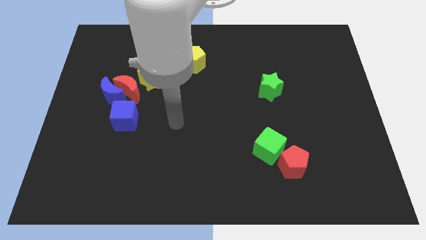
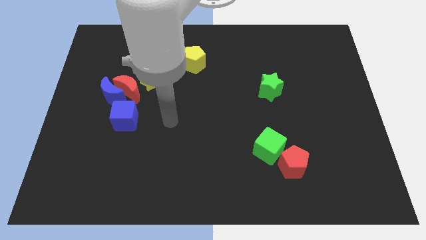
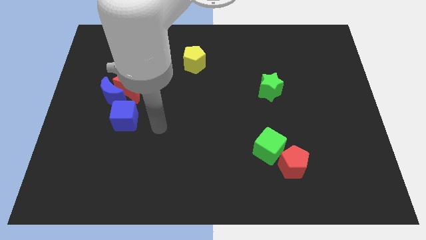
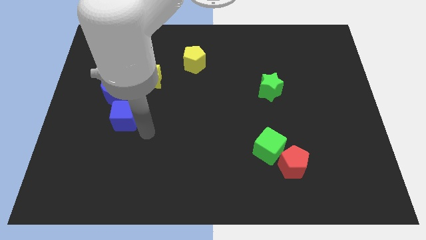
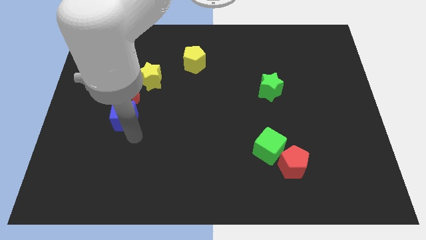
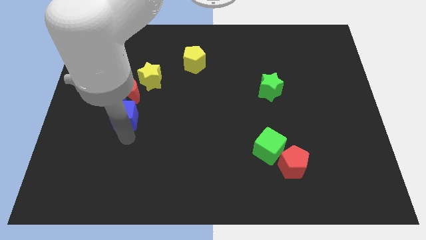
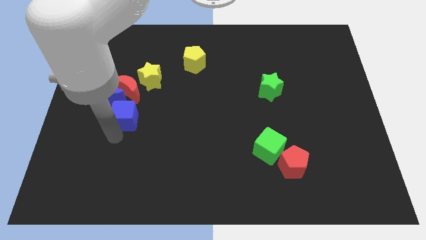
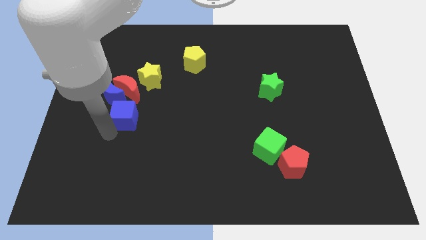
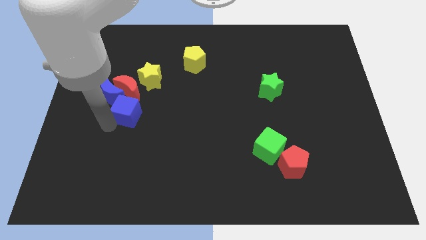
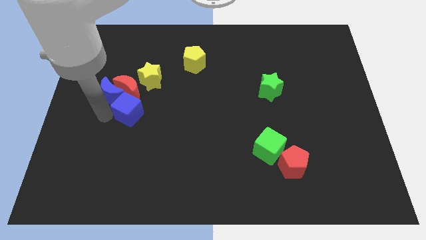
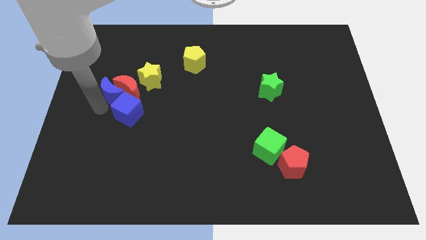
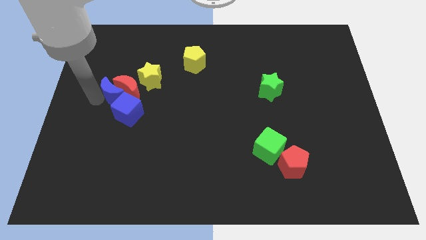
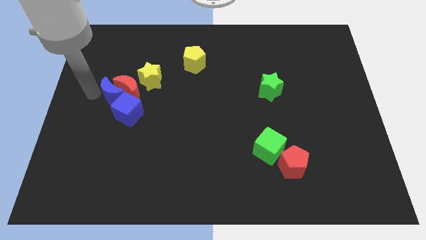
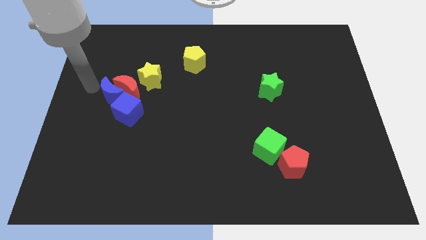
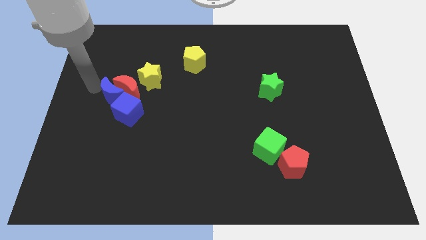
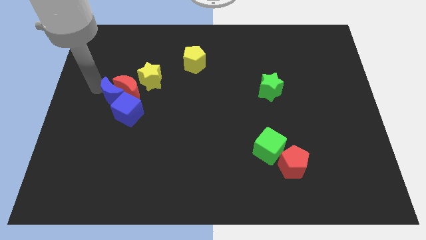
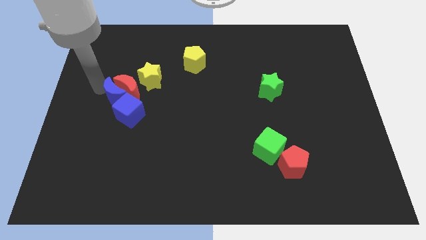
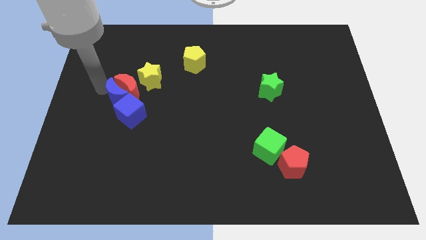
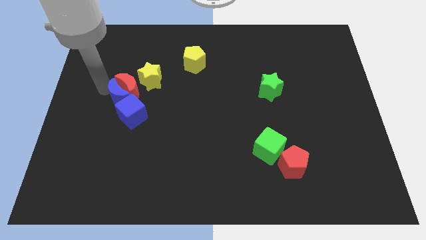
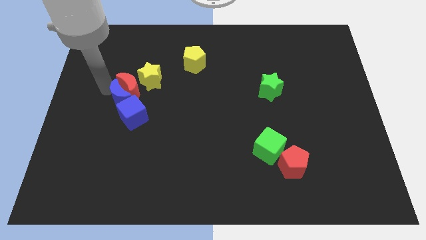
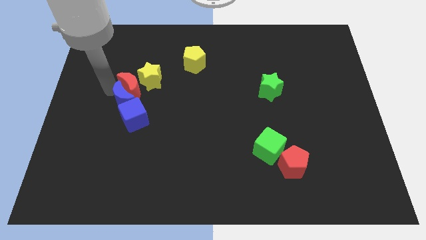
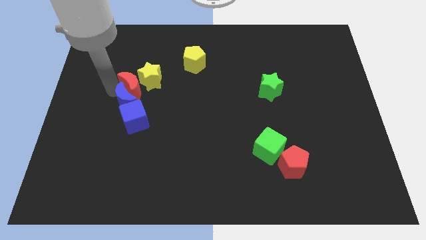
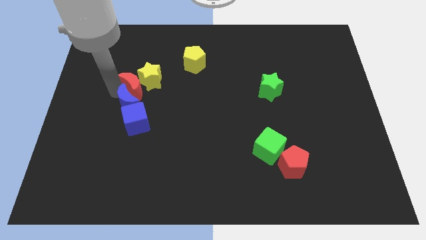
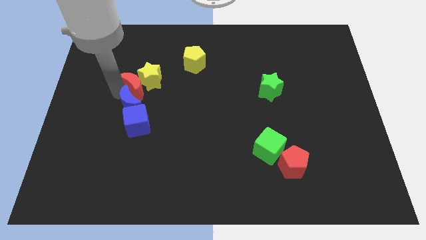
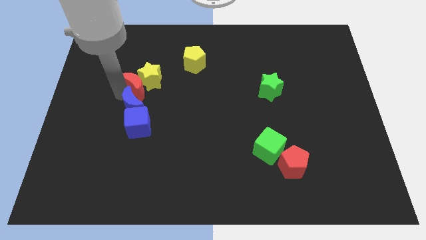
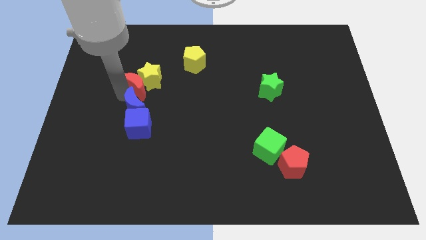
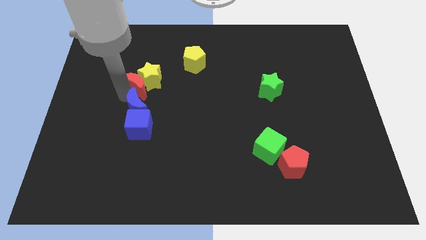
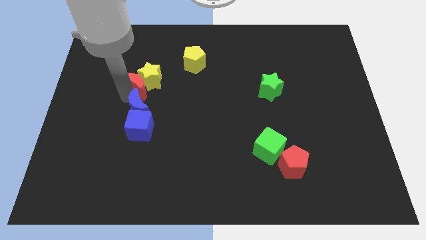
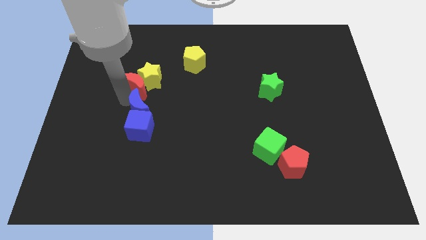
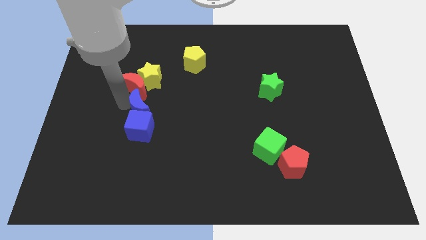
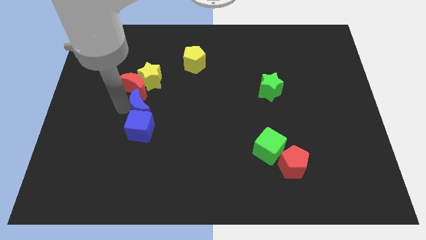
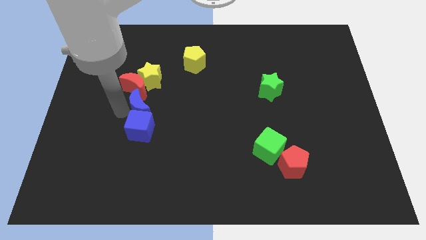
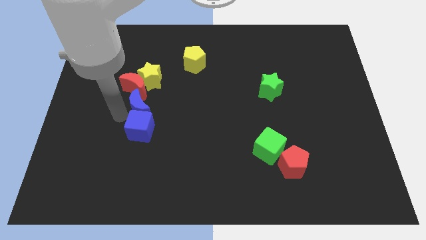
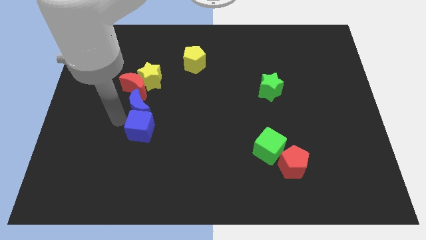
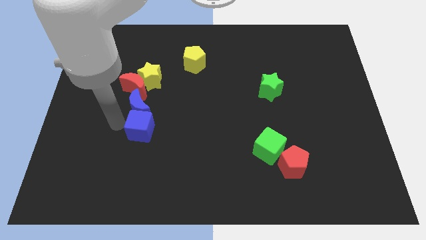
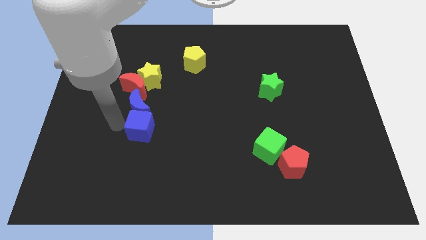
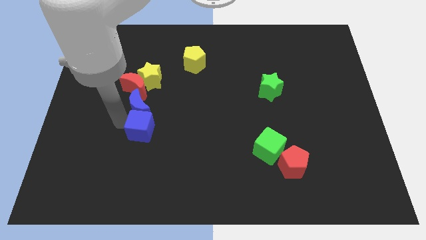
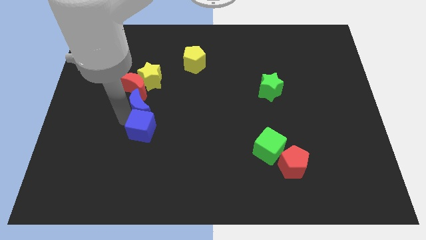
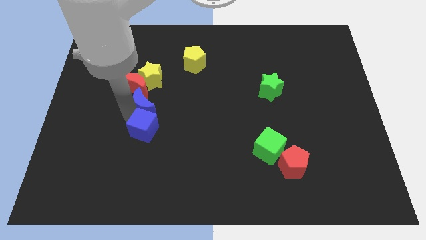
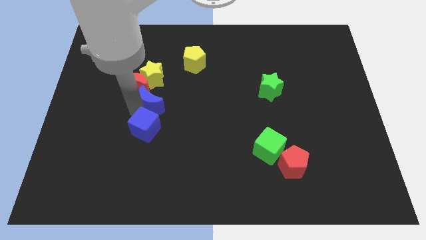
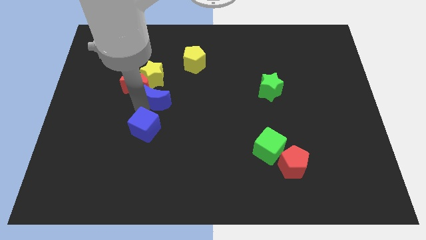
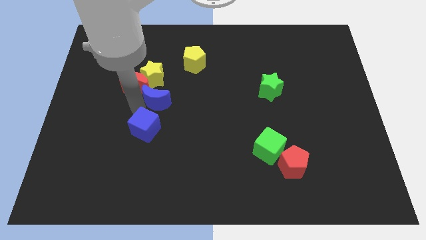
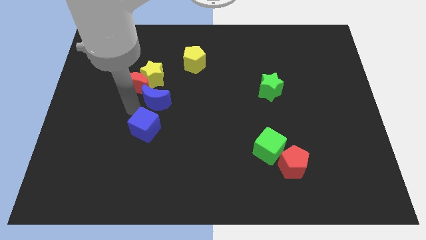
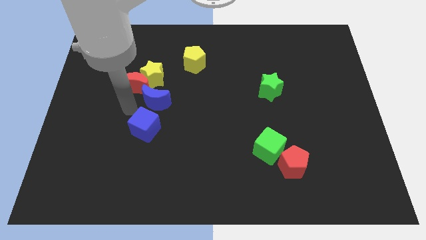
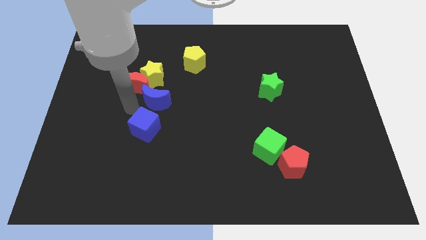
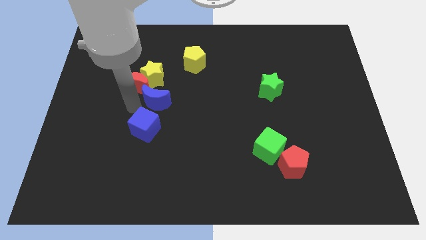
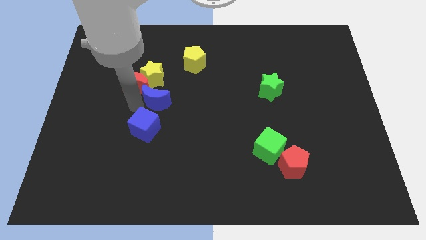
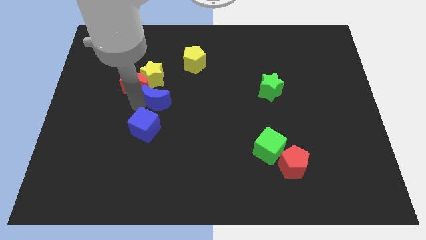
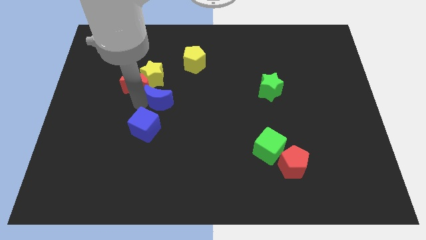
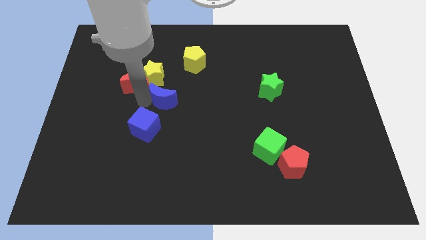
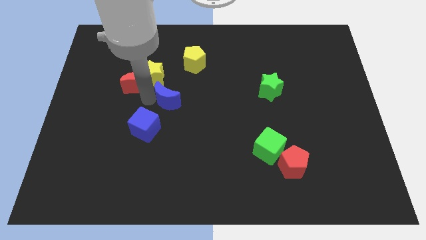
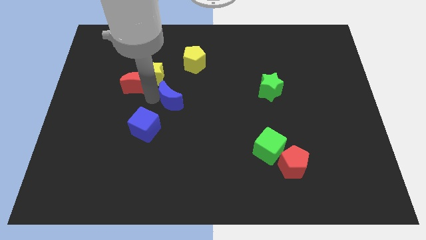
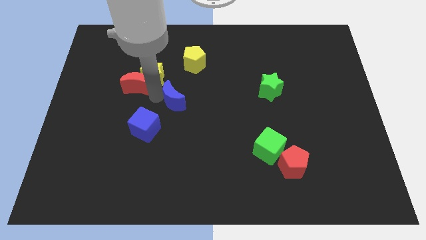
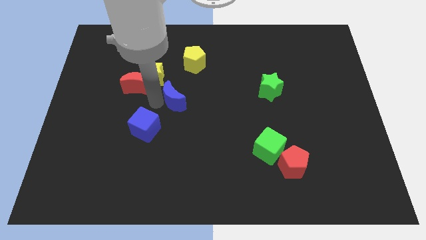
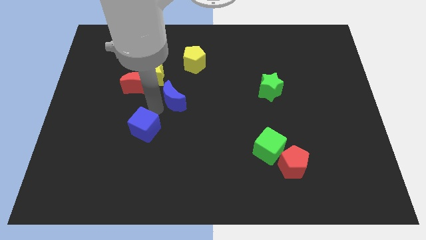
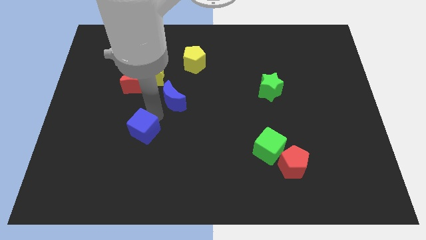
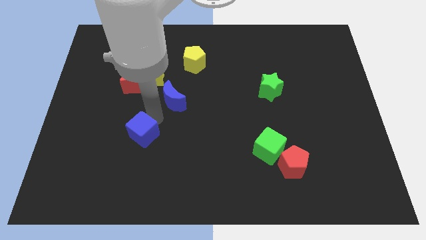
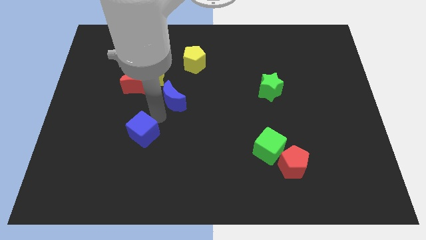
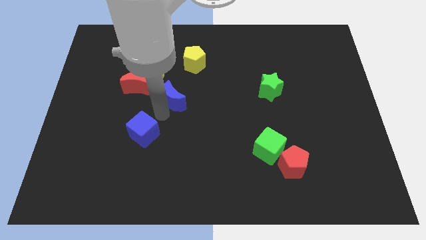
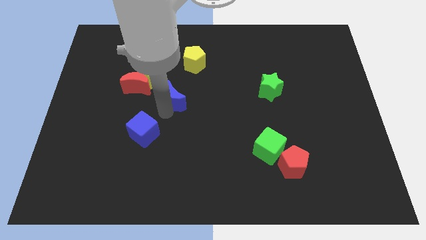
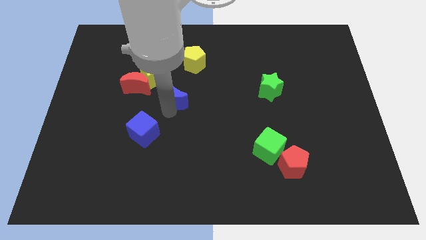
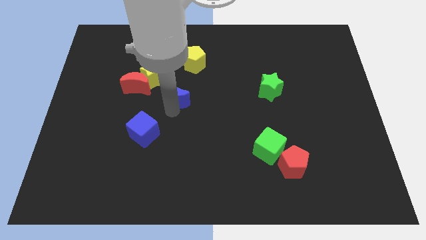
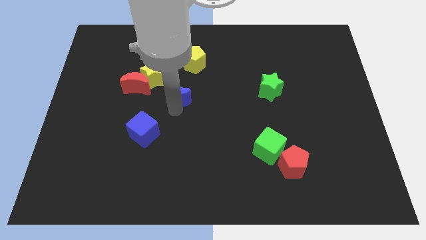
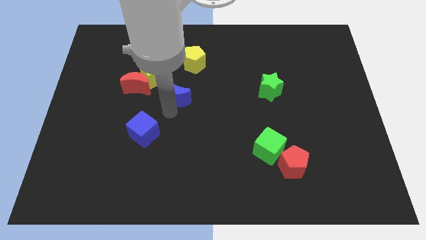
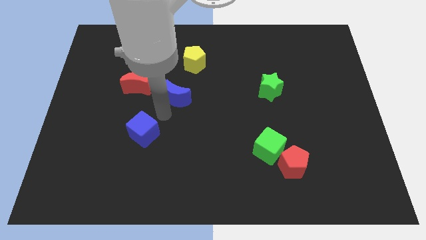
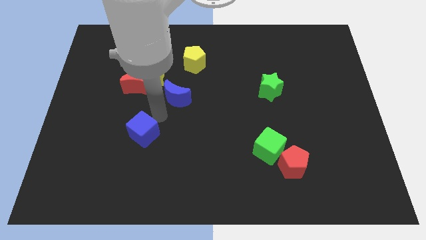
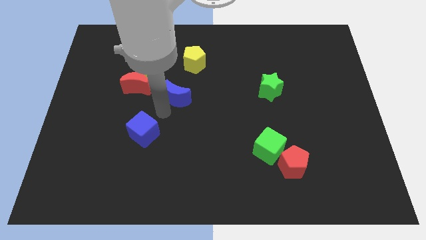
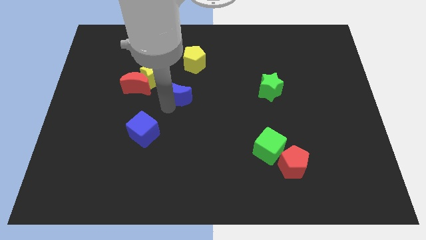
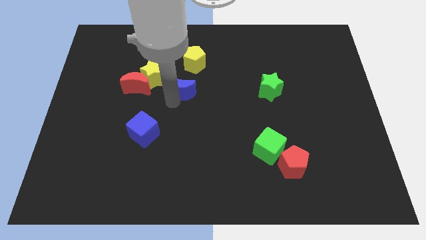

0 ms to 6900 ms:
push the blue moon to the right of the yellow star

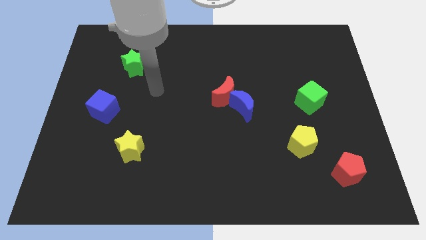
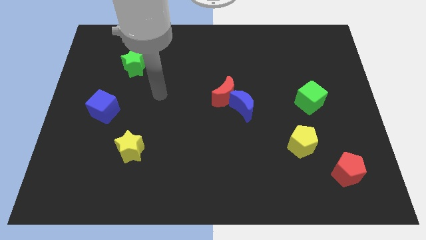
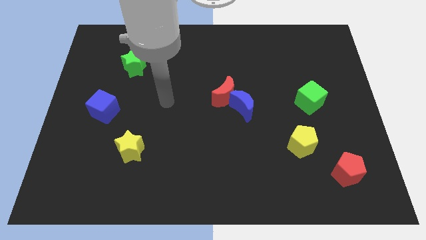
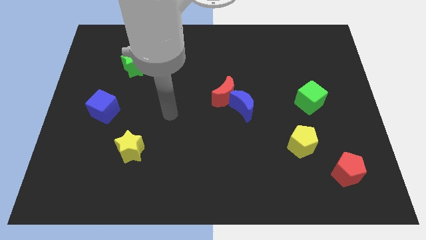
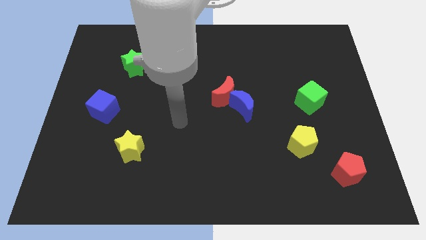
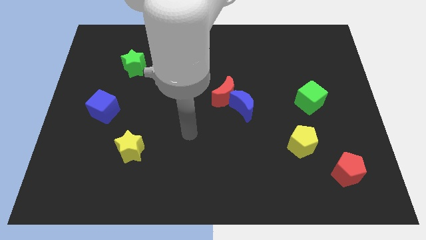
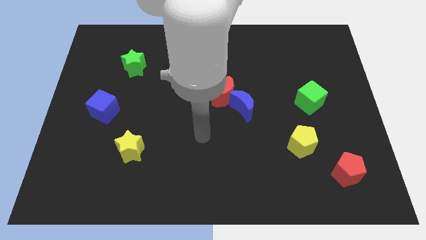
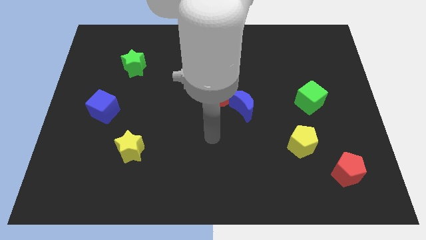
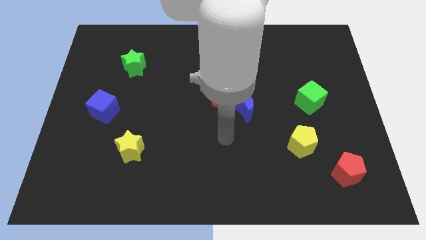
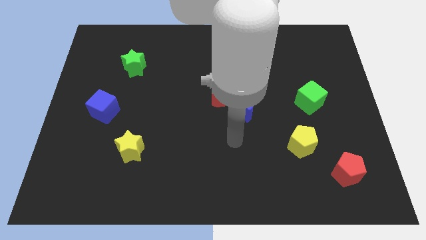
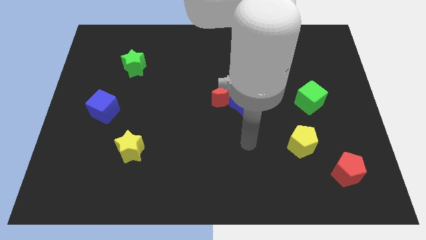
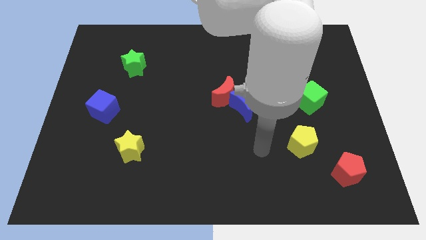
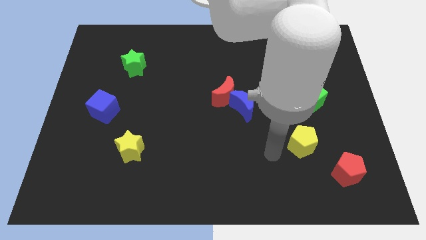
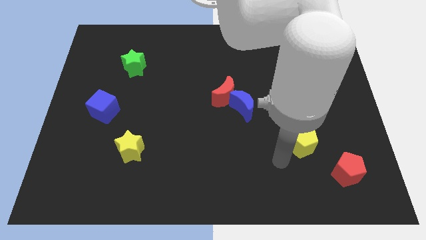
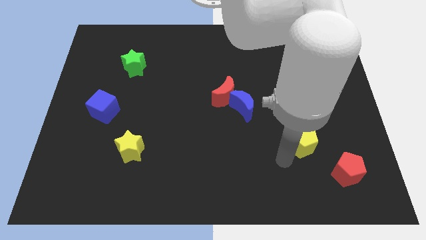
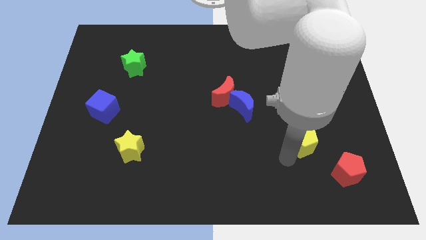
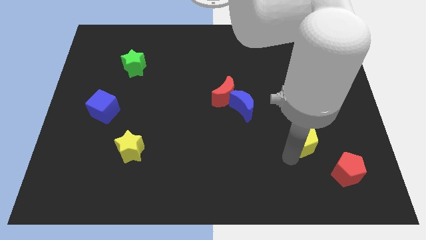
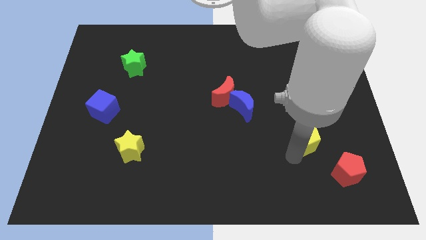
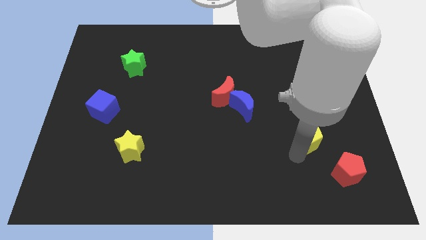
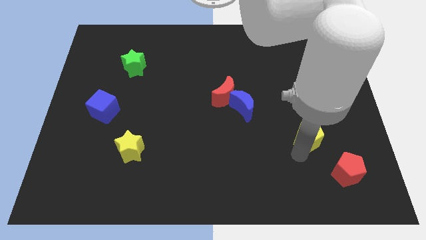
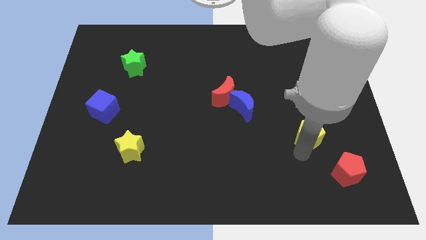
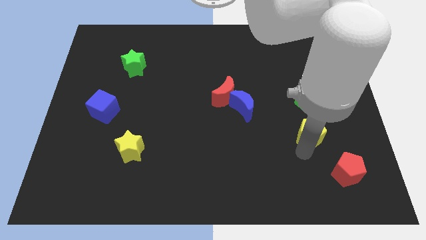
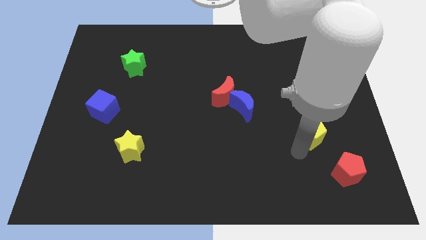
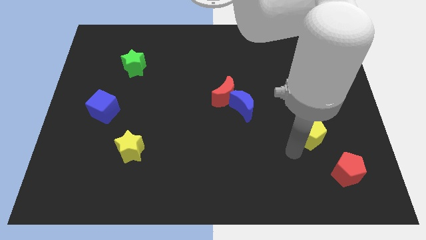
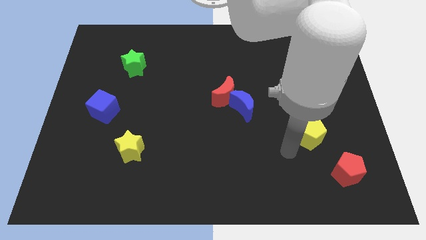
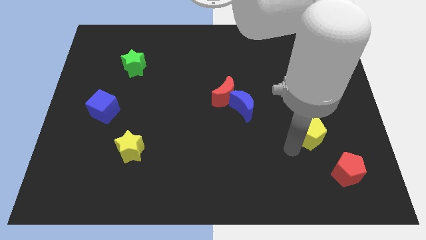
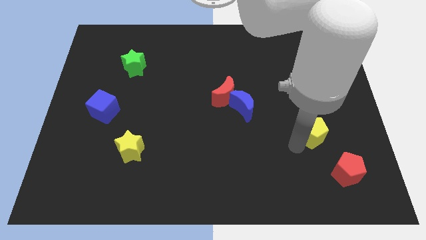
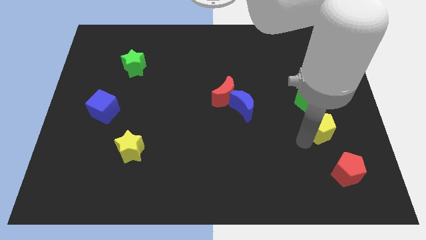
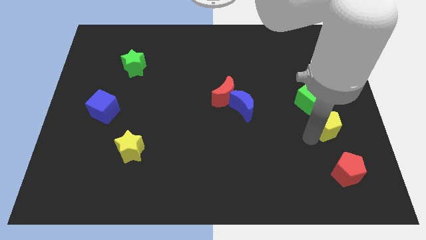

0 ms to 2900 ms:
put the yellow pentagon diagonally down and to the right of the green cube
